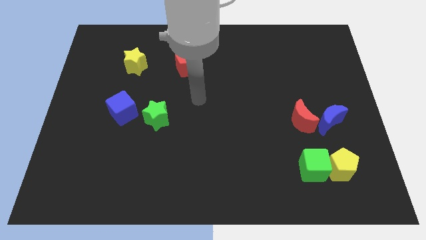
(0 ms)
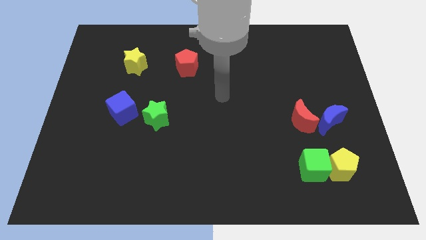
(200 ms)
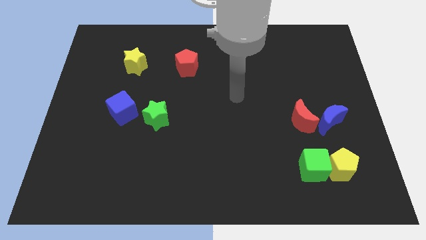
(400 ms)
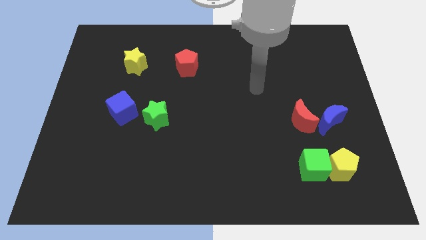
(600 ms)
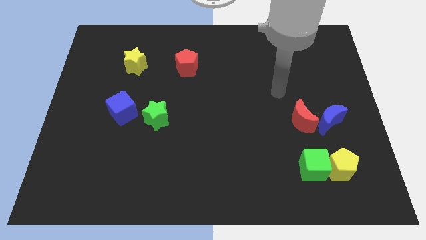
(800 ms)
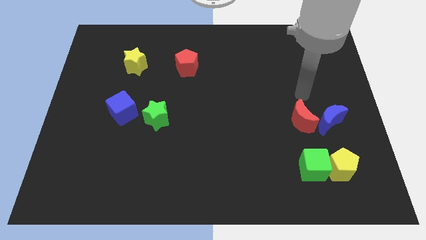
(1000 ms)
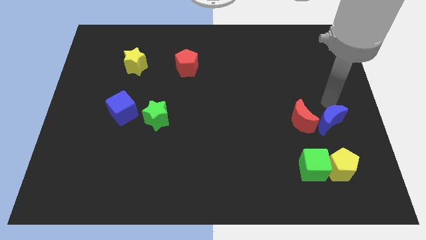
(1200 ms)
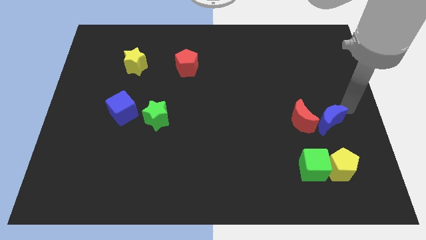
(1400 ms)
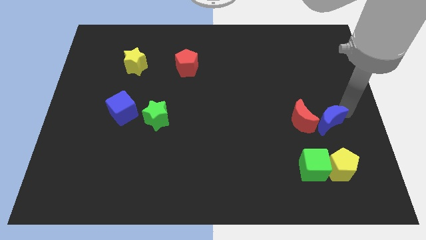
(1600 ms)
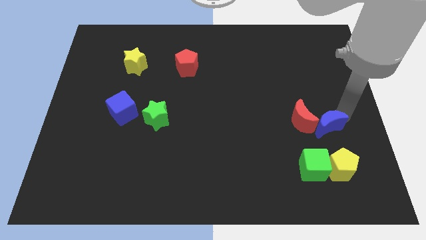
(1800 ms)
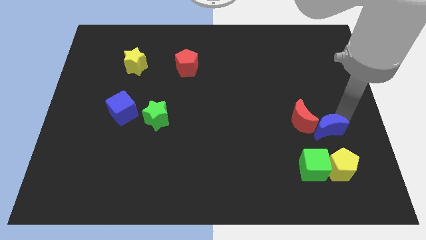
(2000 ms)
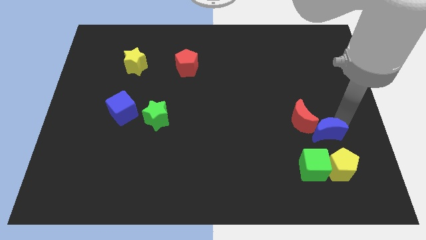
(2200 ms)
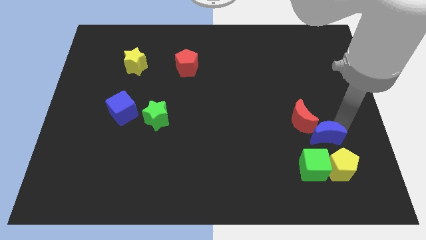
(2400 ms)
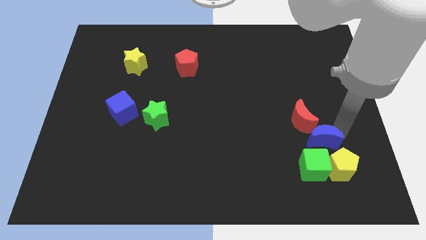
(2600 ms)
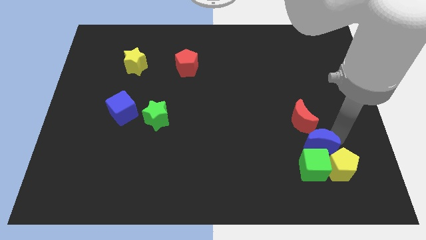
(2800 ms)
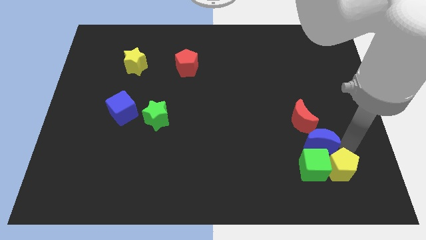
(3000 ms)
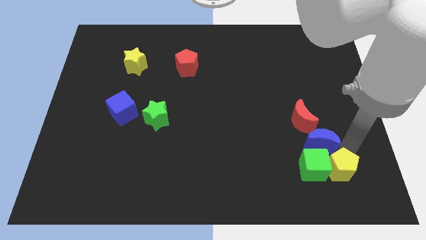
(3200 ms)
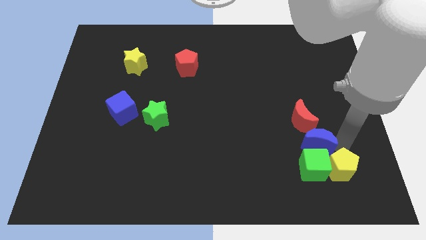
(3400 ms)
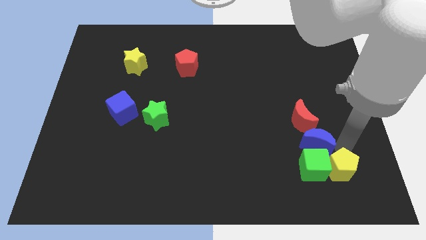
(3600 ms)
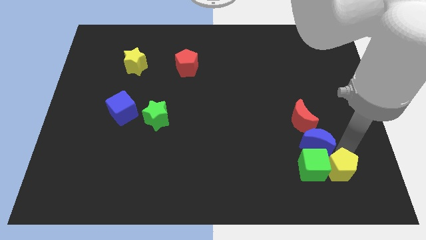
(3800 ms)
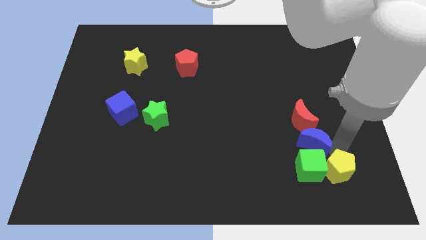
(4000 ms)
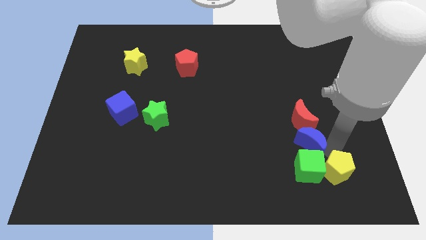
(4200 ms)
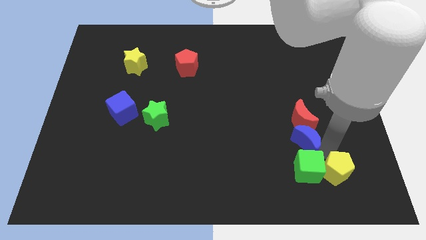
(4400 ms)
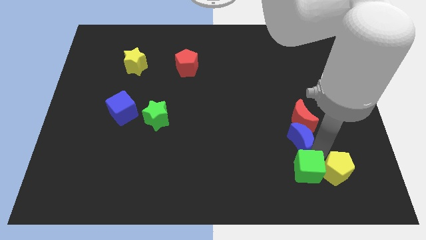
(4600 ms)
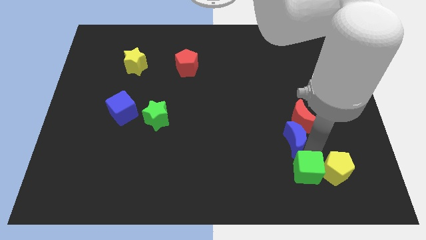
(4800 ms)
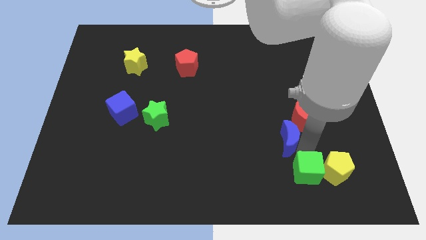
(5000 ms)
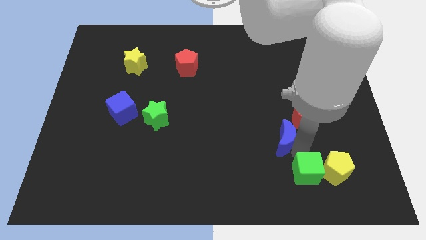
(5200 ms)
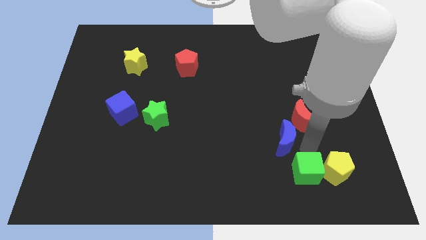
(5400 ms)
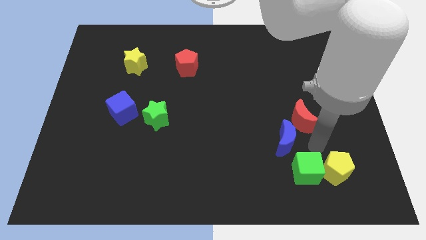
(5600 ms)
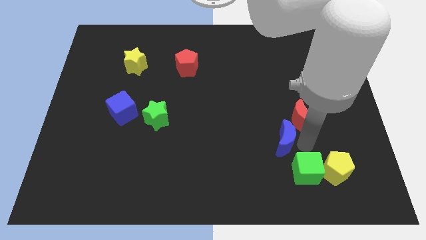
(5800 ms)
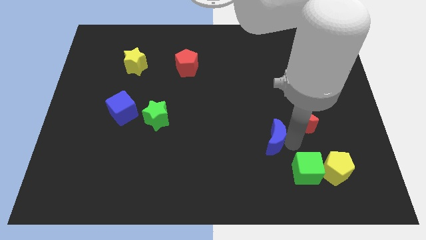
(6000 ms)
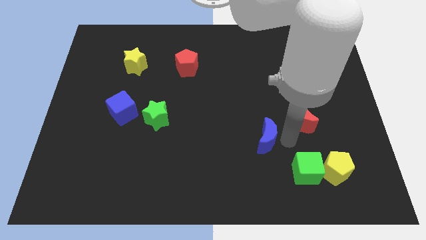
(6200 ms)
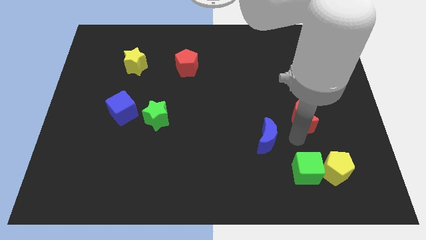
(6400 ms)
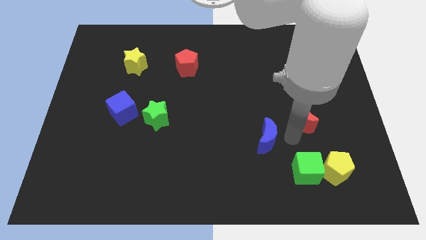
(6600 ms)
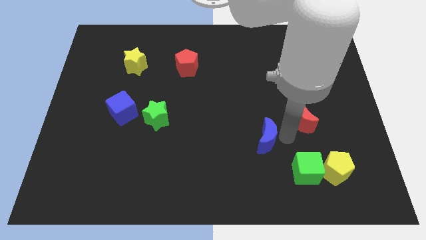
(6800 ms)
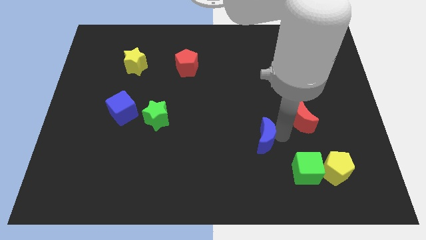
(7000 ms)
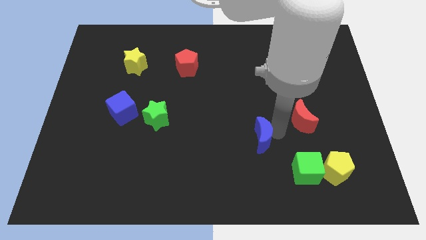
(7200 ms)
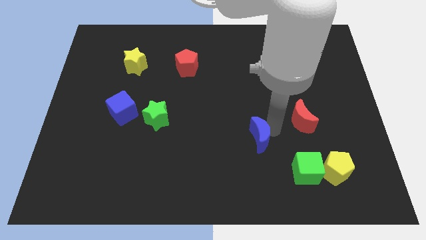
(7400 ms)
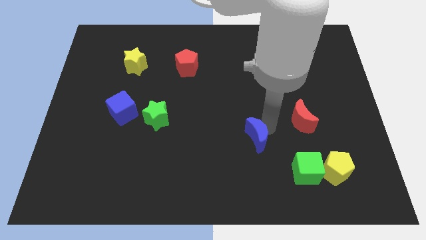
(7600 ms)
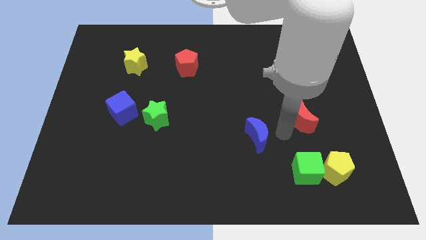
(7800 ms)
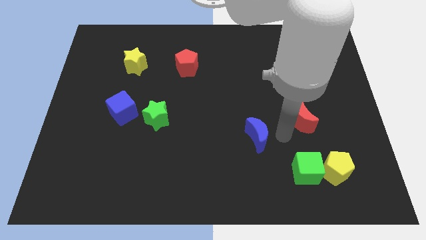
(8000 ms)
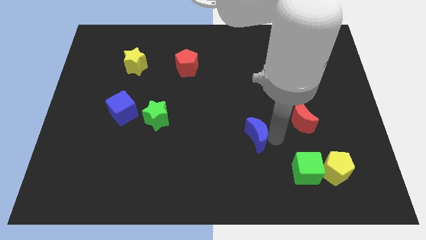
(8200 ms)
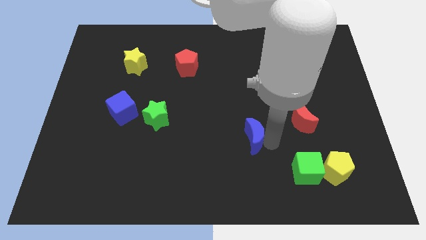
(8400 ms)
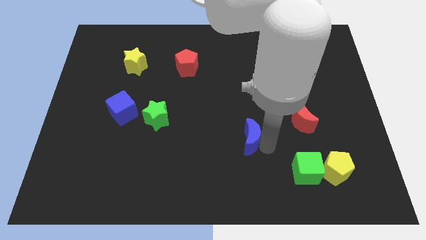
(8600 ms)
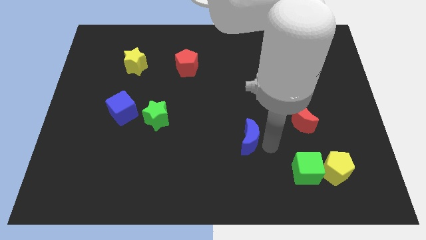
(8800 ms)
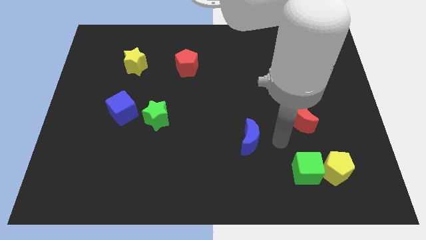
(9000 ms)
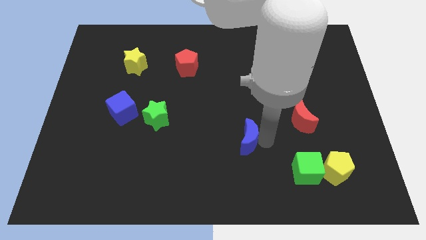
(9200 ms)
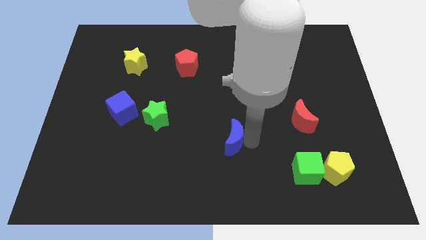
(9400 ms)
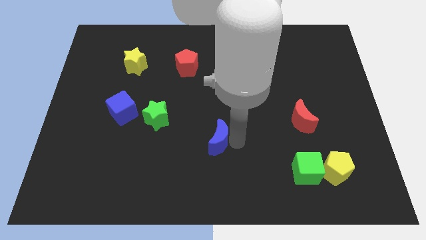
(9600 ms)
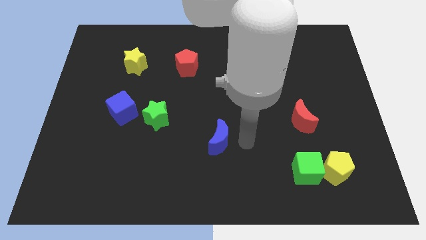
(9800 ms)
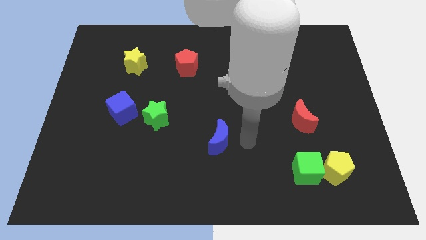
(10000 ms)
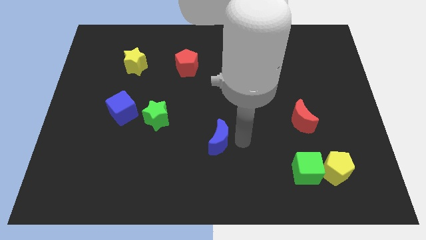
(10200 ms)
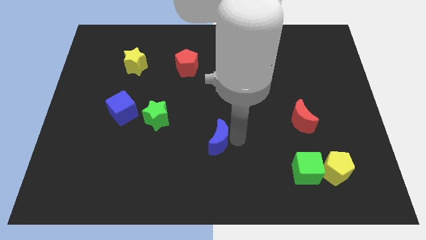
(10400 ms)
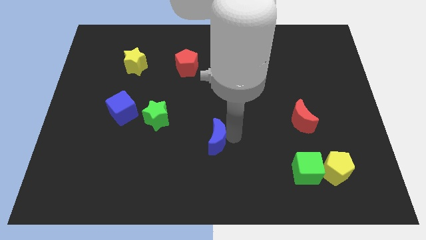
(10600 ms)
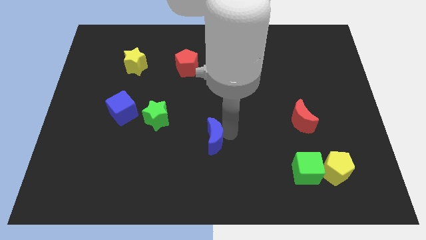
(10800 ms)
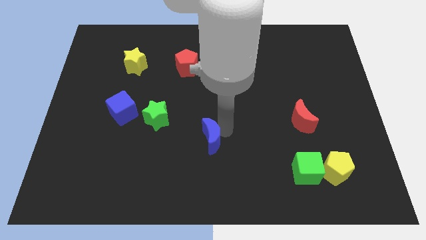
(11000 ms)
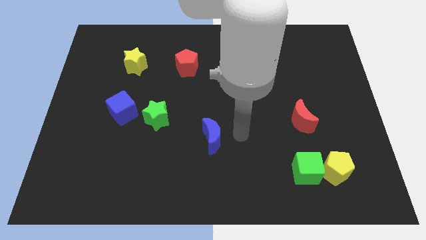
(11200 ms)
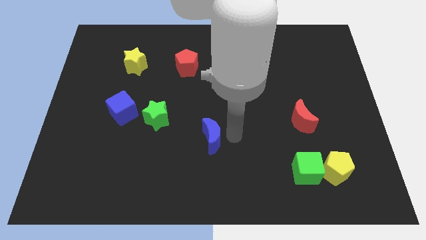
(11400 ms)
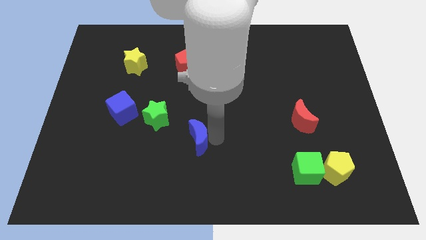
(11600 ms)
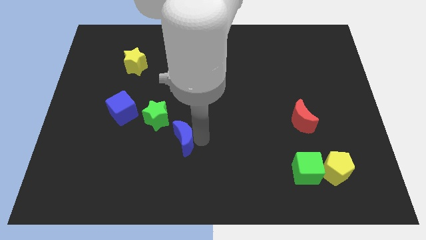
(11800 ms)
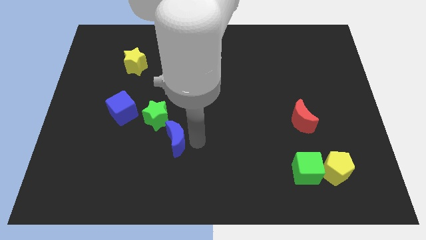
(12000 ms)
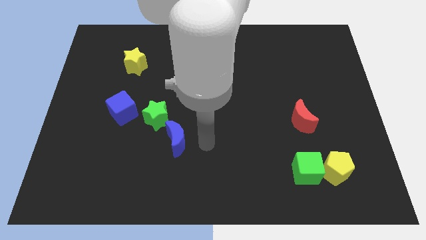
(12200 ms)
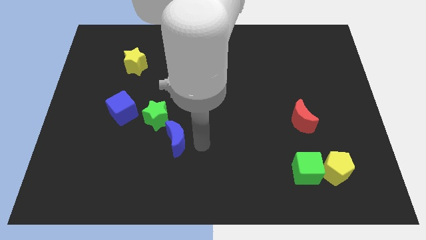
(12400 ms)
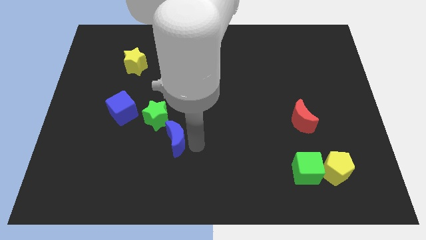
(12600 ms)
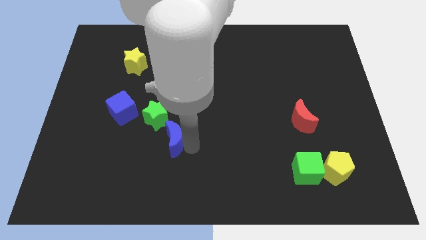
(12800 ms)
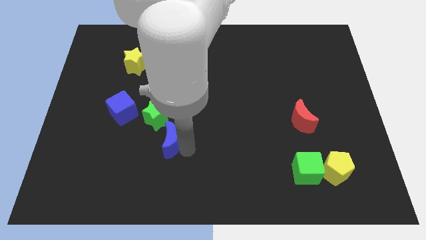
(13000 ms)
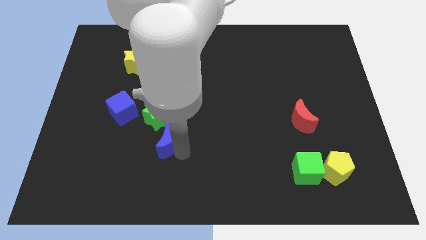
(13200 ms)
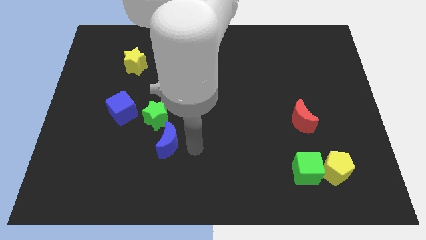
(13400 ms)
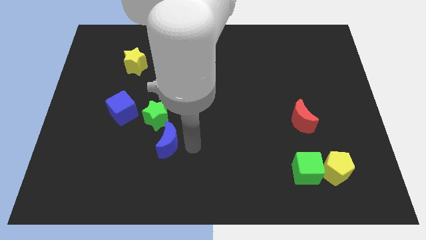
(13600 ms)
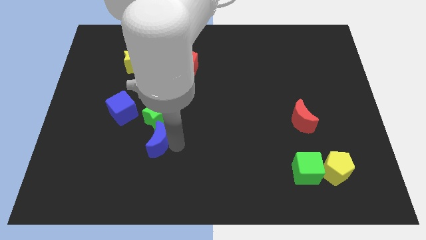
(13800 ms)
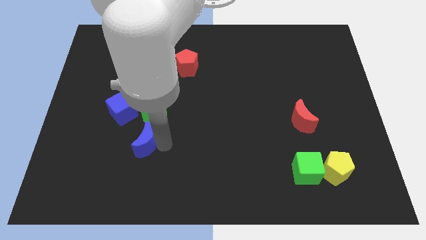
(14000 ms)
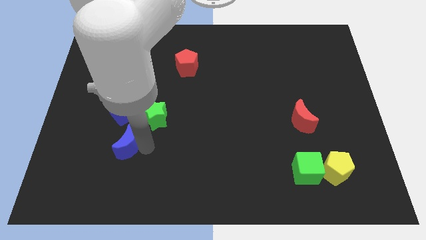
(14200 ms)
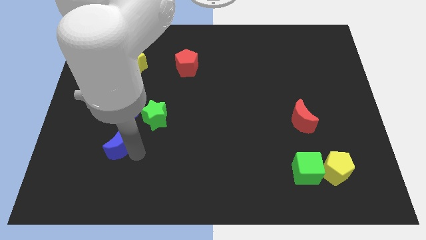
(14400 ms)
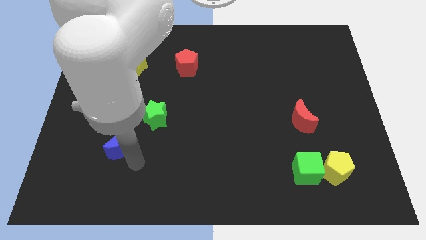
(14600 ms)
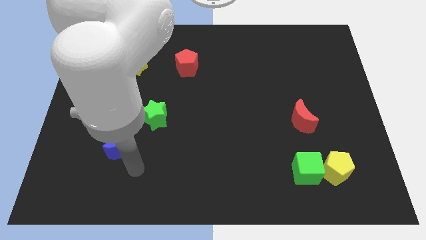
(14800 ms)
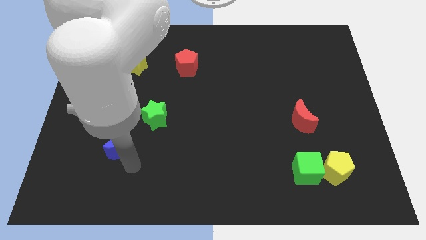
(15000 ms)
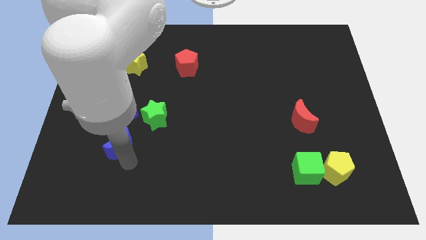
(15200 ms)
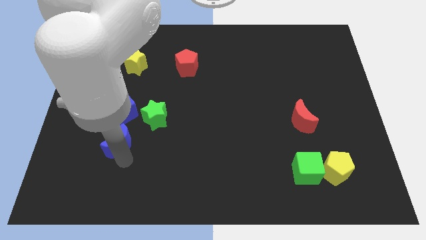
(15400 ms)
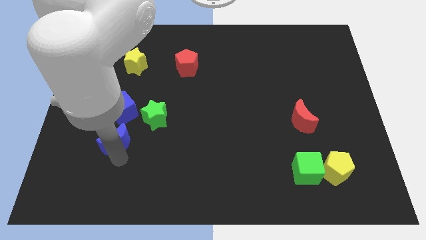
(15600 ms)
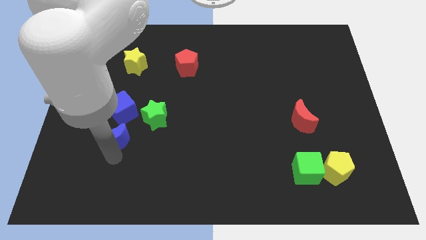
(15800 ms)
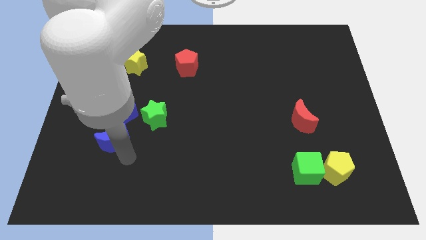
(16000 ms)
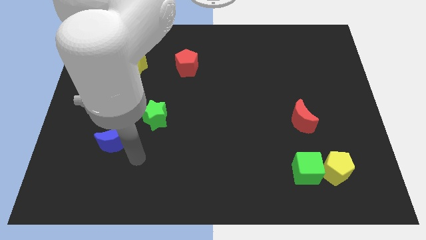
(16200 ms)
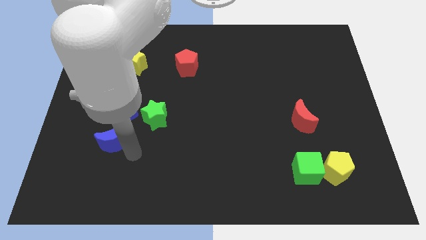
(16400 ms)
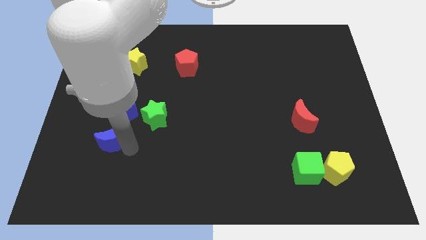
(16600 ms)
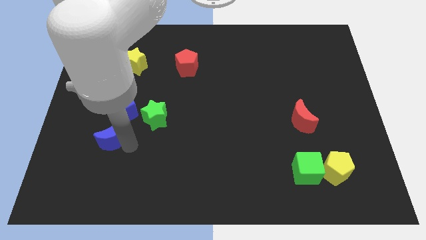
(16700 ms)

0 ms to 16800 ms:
slide the blue moon diagonally down and to the left of the blue cube
